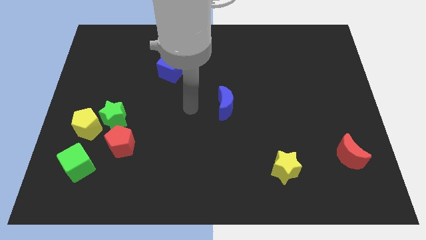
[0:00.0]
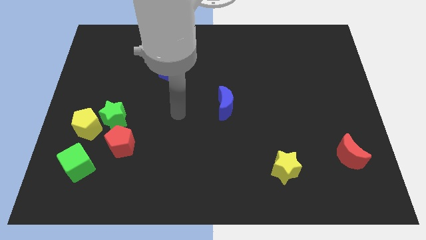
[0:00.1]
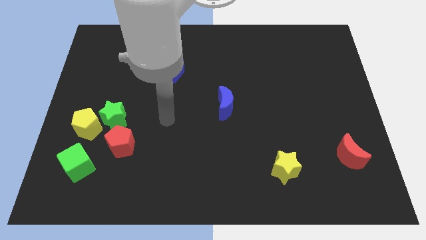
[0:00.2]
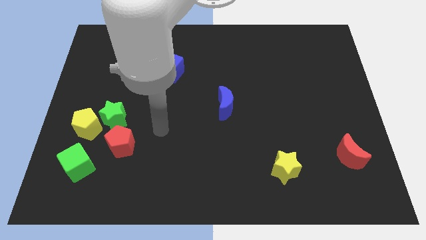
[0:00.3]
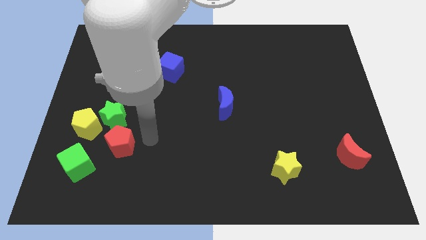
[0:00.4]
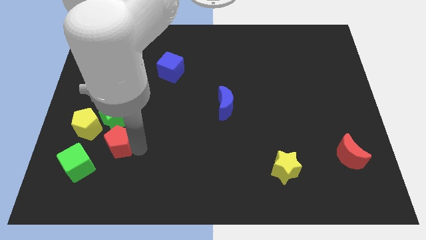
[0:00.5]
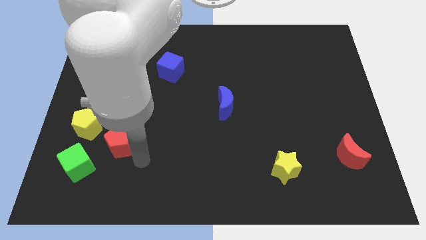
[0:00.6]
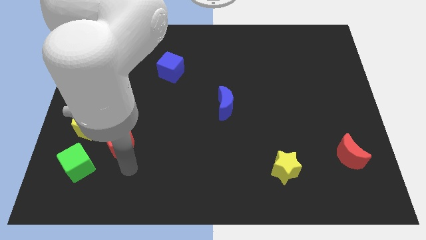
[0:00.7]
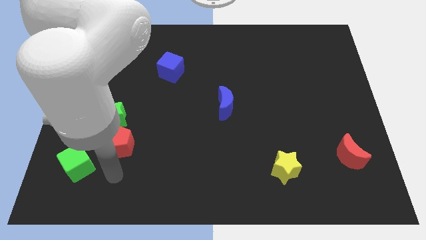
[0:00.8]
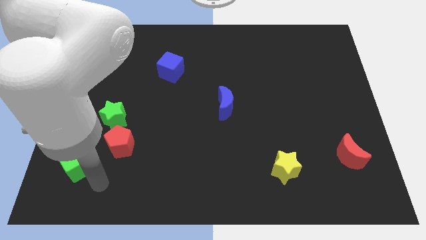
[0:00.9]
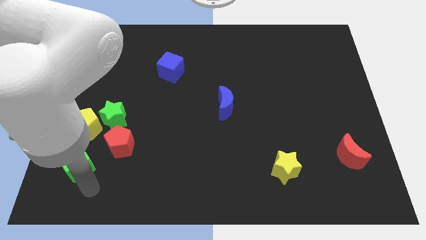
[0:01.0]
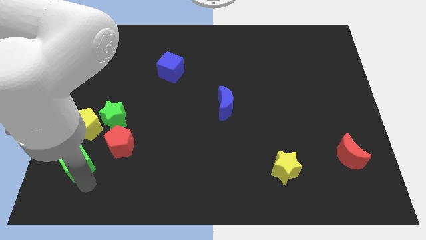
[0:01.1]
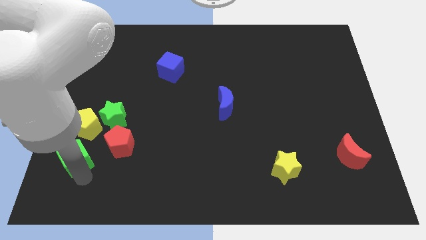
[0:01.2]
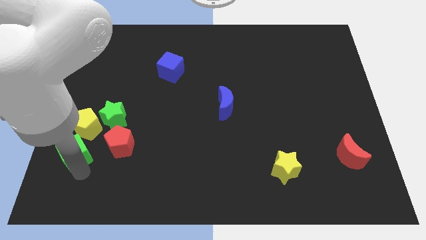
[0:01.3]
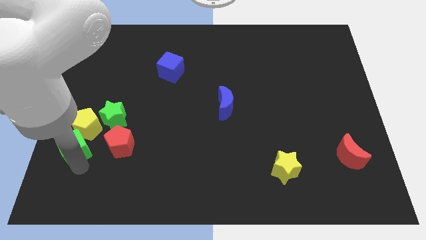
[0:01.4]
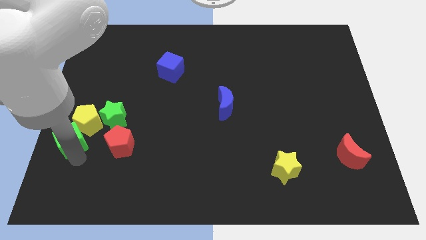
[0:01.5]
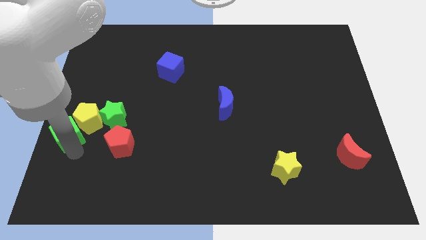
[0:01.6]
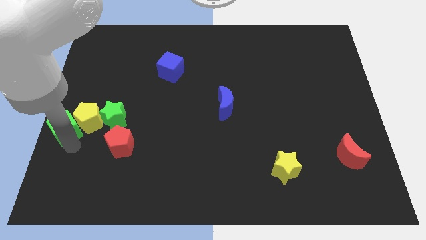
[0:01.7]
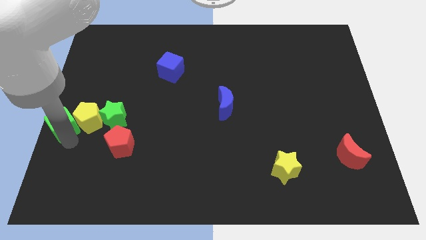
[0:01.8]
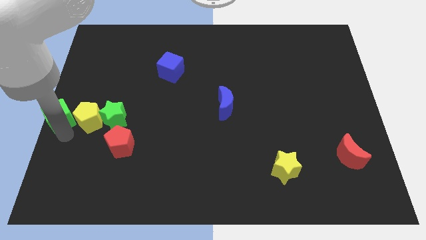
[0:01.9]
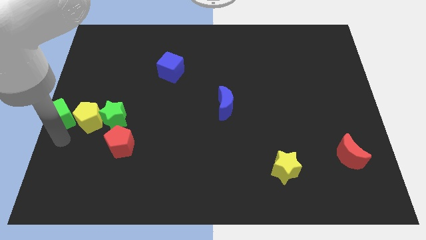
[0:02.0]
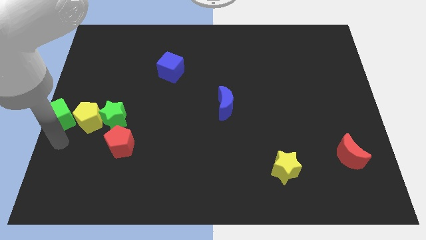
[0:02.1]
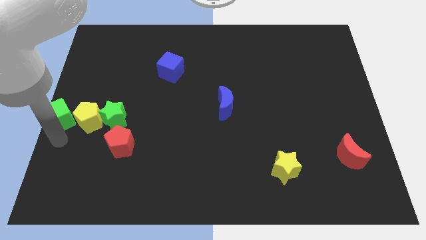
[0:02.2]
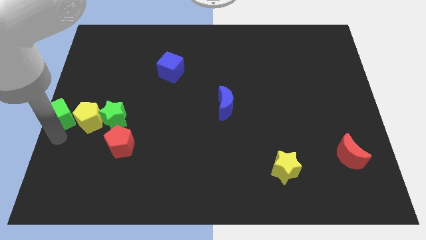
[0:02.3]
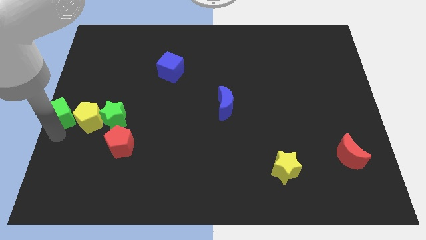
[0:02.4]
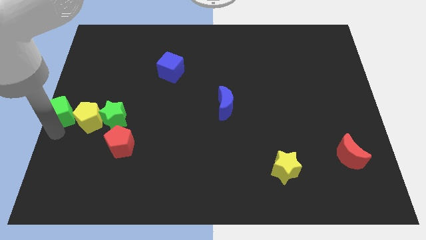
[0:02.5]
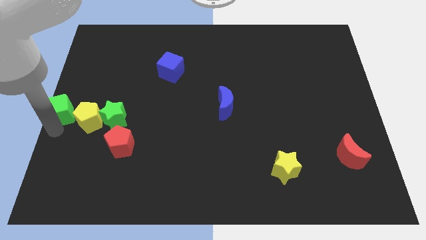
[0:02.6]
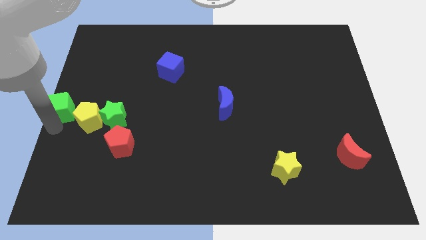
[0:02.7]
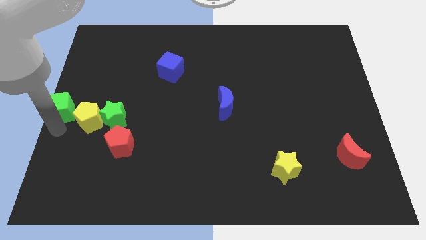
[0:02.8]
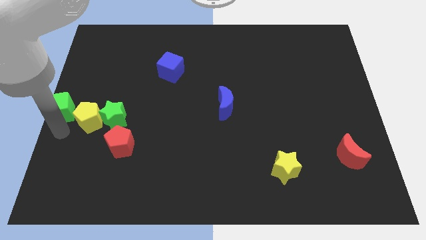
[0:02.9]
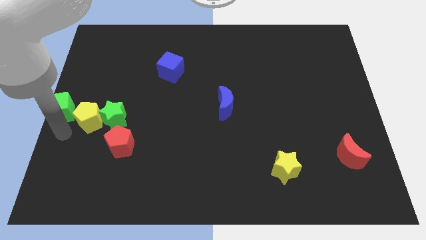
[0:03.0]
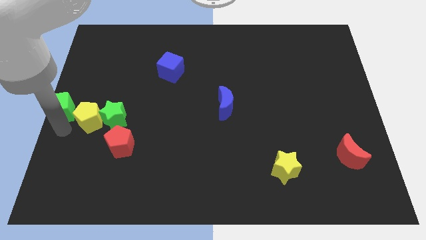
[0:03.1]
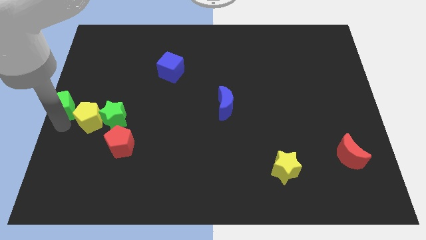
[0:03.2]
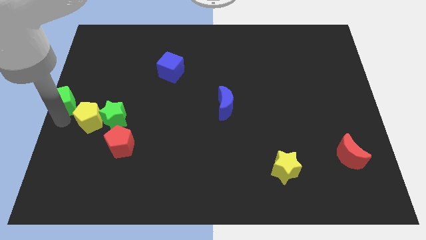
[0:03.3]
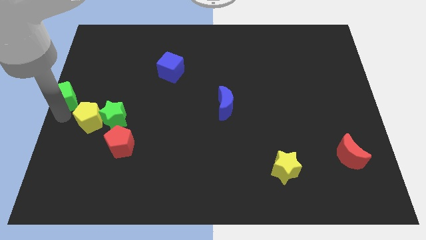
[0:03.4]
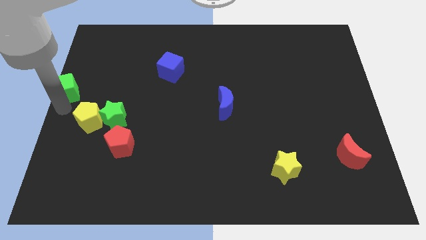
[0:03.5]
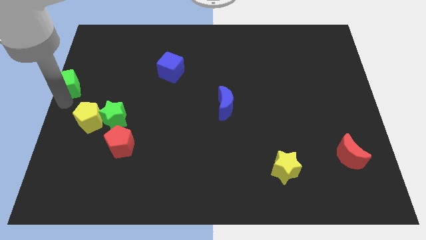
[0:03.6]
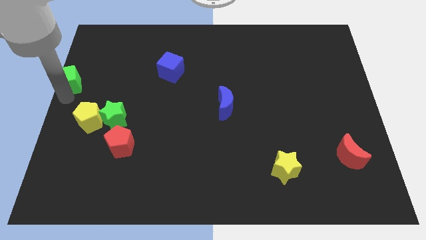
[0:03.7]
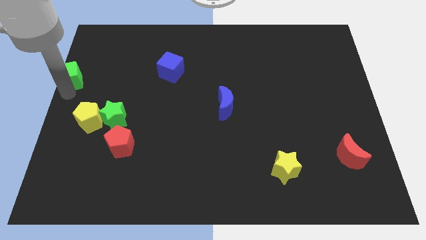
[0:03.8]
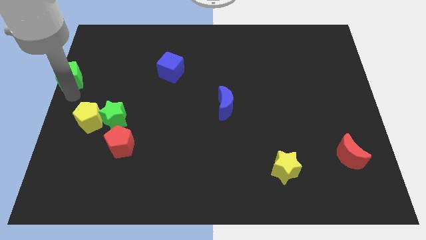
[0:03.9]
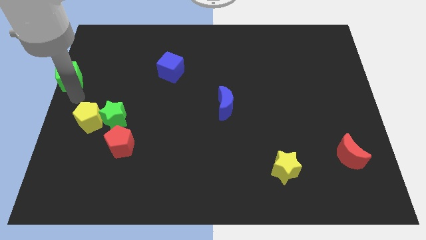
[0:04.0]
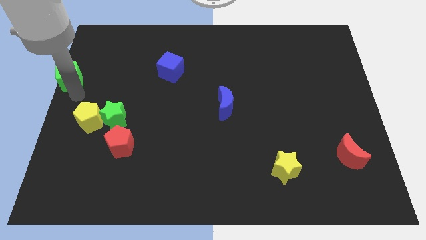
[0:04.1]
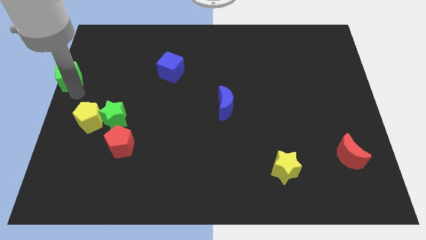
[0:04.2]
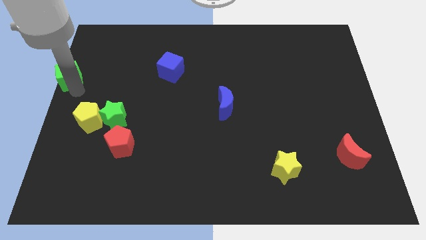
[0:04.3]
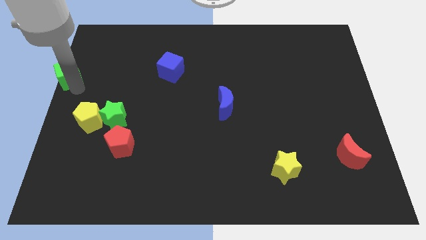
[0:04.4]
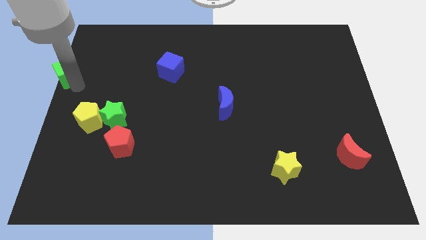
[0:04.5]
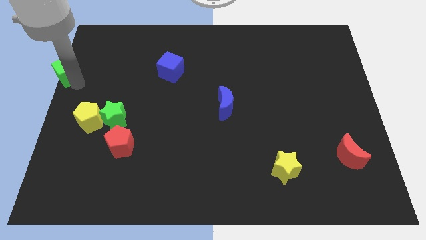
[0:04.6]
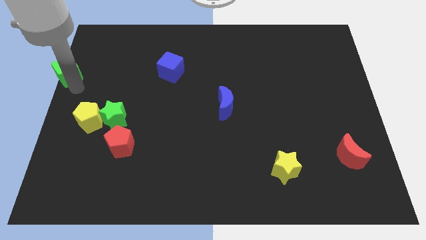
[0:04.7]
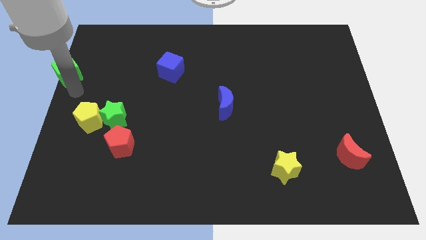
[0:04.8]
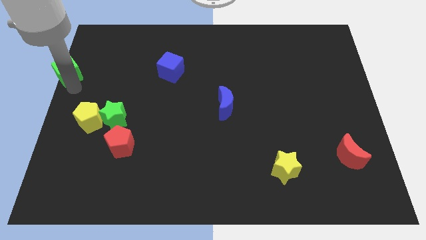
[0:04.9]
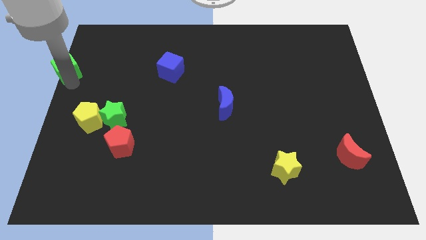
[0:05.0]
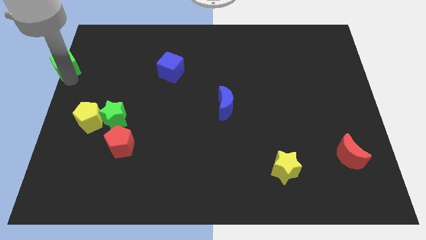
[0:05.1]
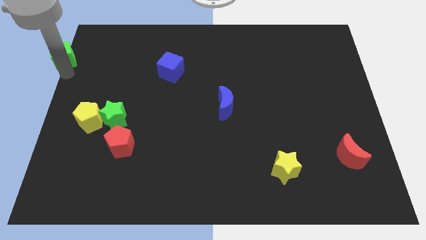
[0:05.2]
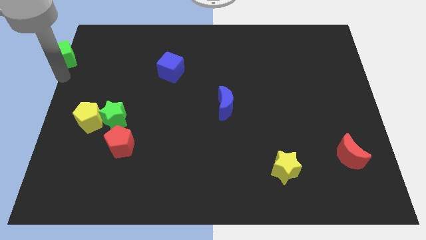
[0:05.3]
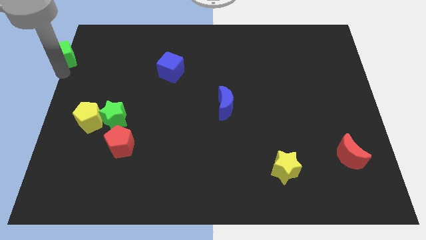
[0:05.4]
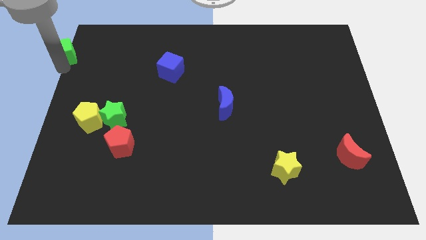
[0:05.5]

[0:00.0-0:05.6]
move the green cube to the top left

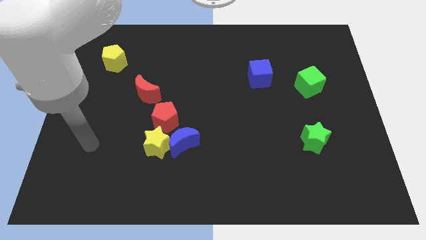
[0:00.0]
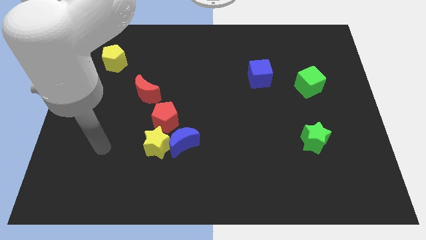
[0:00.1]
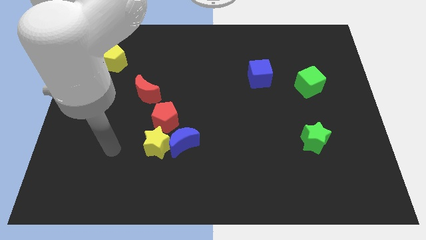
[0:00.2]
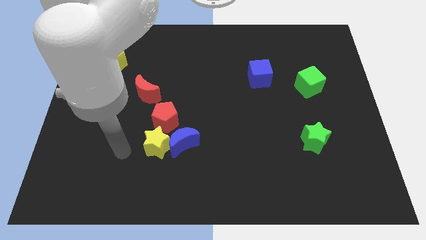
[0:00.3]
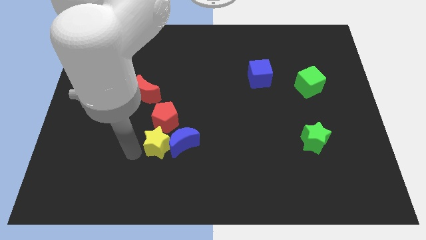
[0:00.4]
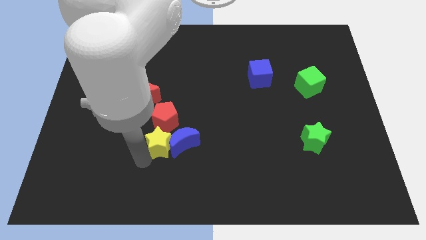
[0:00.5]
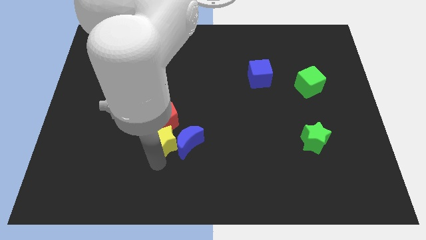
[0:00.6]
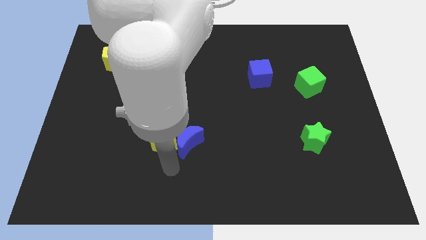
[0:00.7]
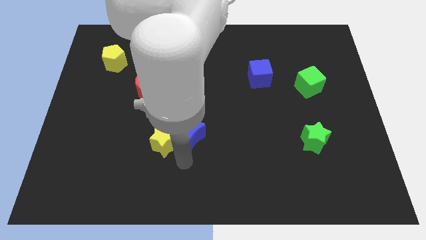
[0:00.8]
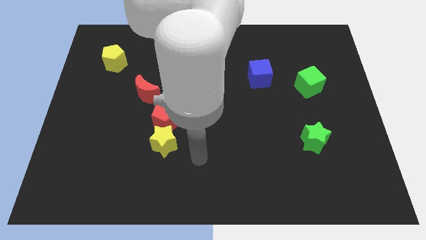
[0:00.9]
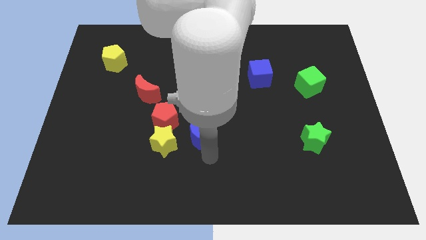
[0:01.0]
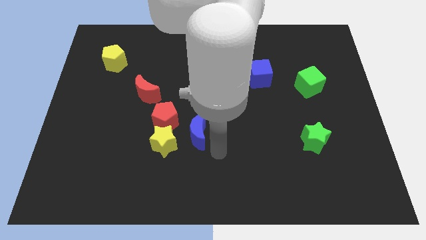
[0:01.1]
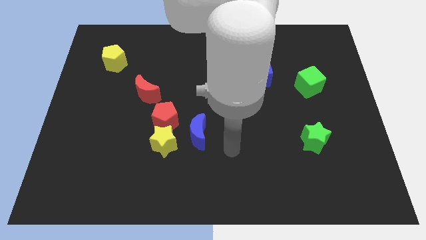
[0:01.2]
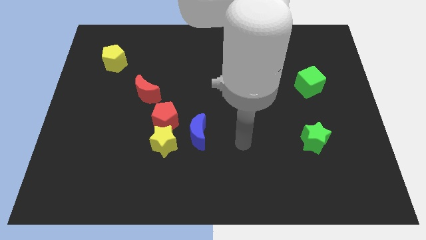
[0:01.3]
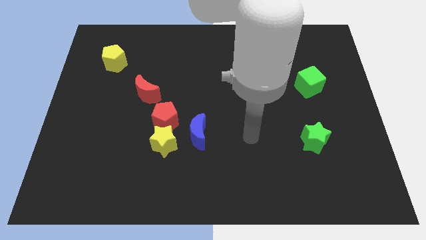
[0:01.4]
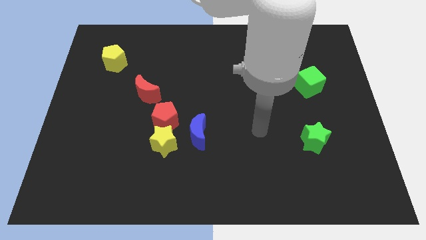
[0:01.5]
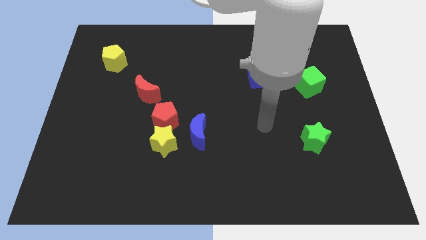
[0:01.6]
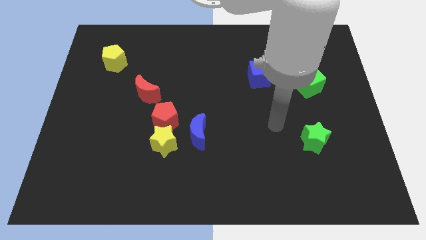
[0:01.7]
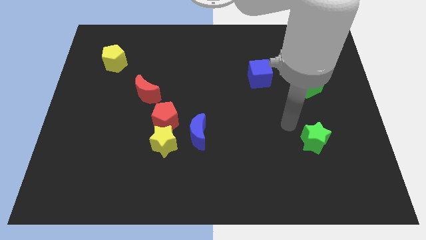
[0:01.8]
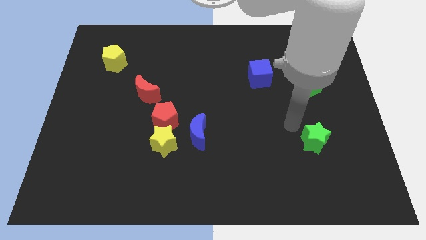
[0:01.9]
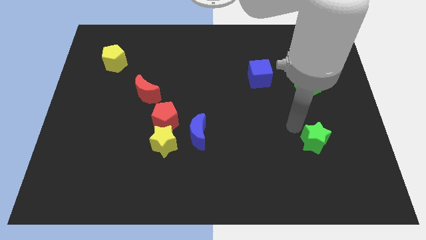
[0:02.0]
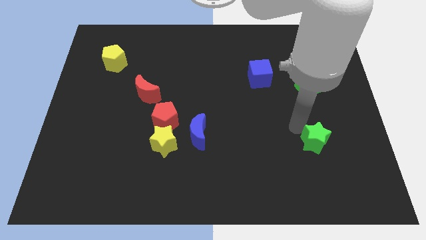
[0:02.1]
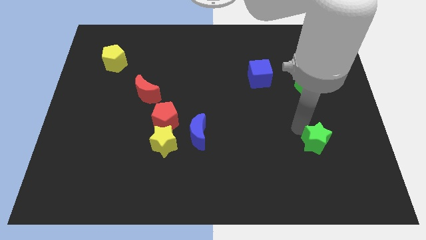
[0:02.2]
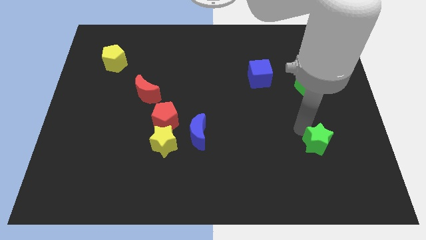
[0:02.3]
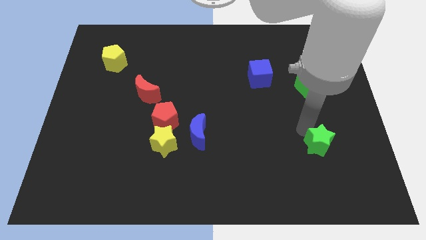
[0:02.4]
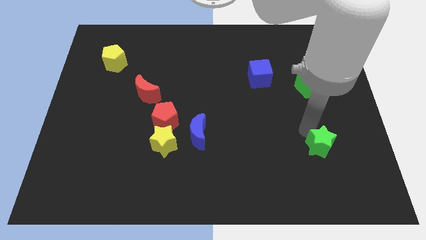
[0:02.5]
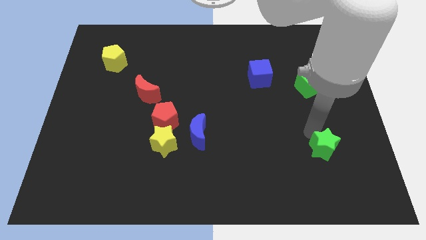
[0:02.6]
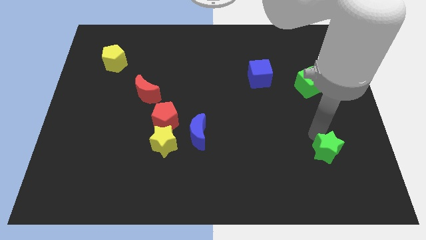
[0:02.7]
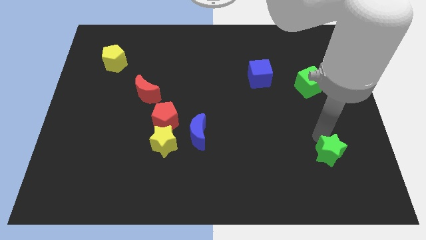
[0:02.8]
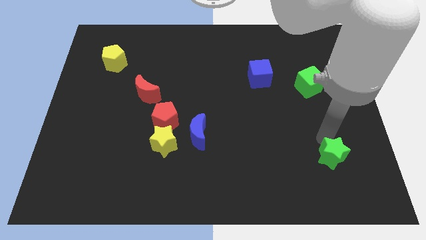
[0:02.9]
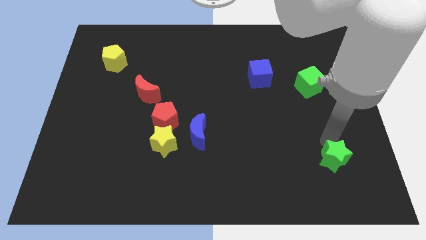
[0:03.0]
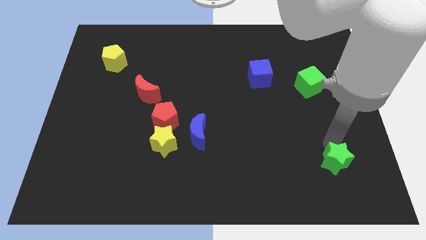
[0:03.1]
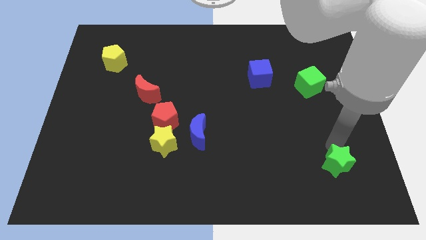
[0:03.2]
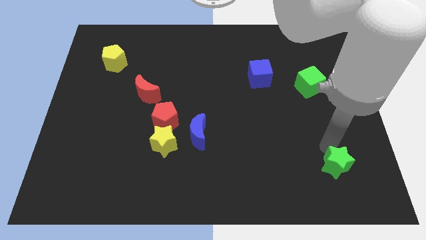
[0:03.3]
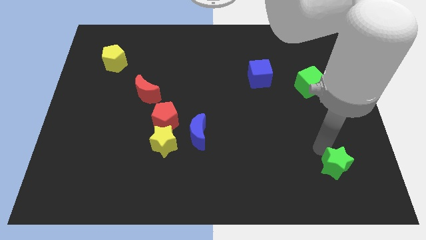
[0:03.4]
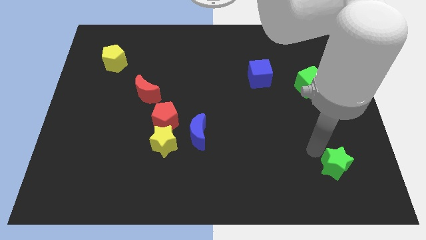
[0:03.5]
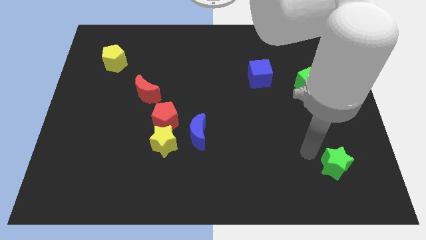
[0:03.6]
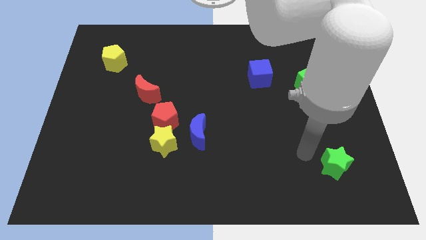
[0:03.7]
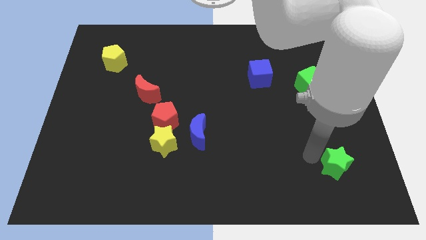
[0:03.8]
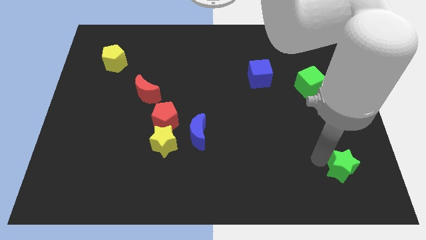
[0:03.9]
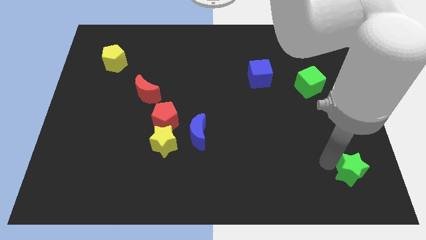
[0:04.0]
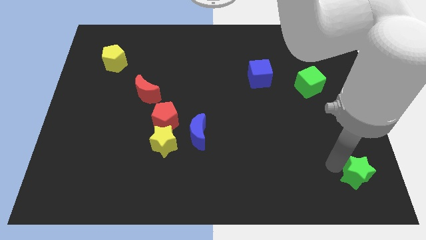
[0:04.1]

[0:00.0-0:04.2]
move the green star to the bottom right of the board
